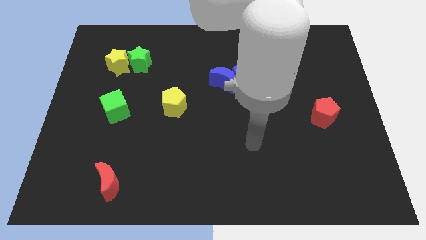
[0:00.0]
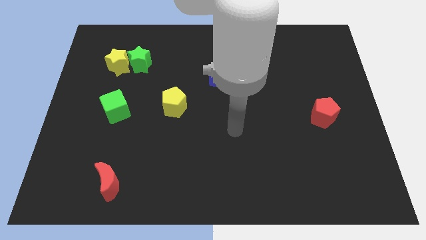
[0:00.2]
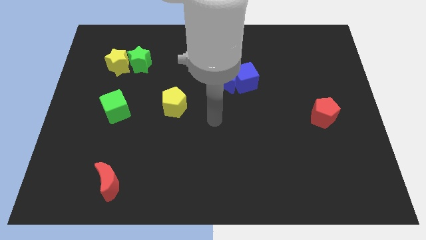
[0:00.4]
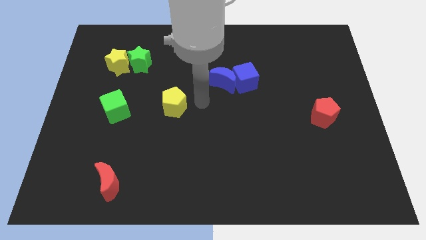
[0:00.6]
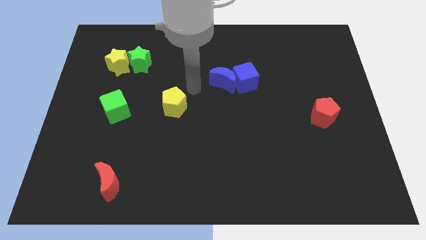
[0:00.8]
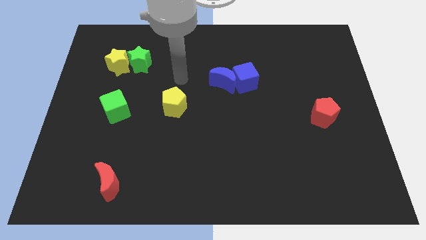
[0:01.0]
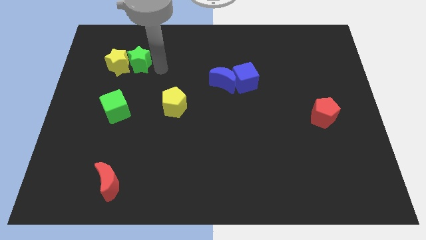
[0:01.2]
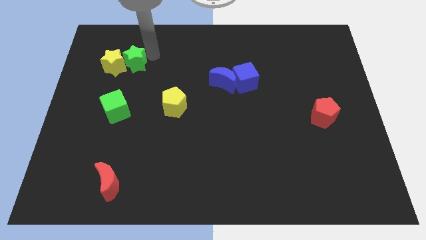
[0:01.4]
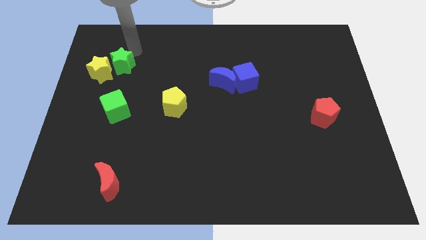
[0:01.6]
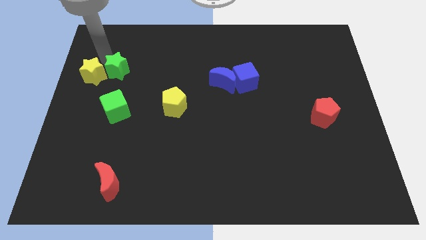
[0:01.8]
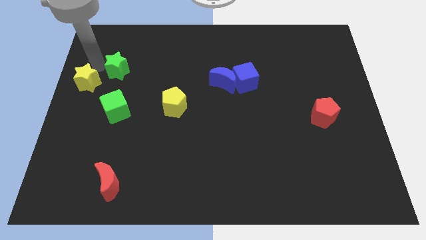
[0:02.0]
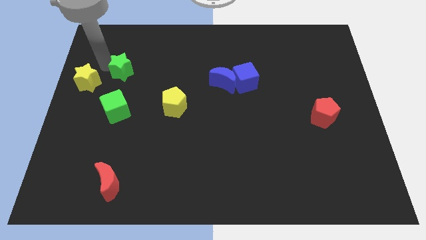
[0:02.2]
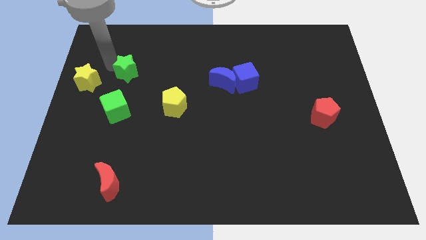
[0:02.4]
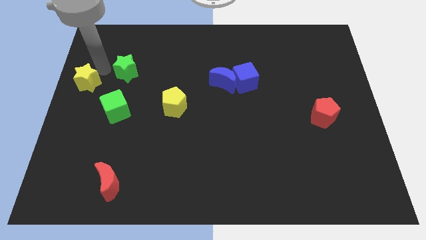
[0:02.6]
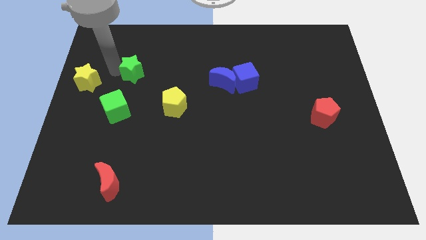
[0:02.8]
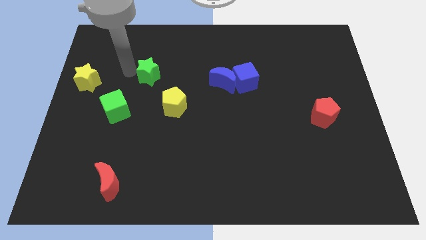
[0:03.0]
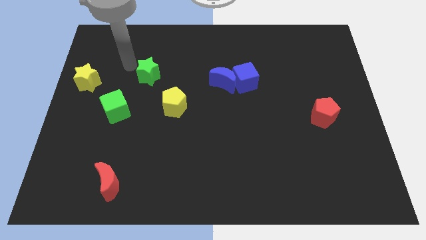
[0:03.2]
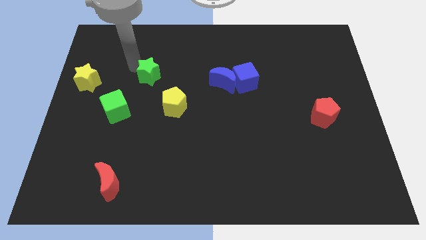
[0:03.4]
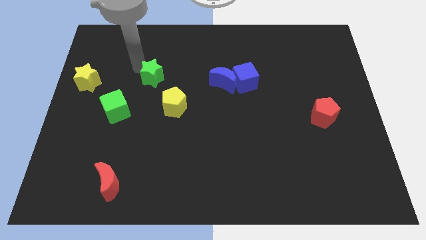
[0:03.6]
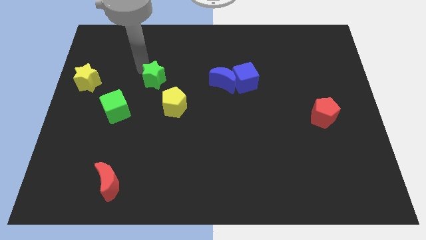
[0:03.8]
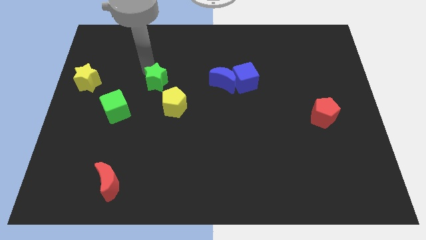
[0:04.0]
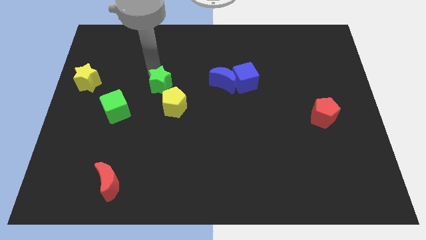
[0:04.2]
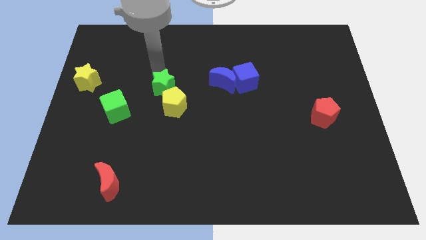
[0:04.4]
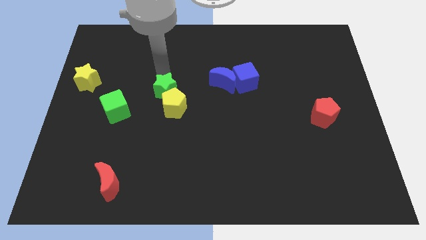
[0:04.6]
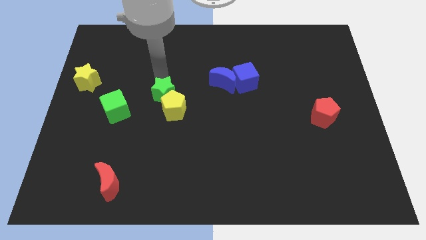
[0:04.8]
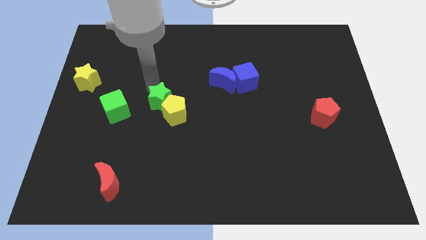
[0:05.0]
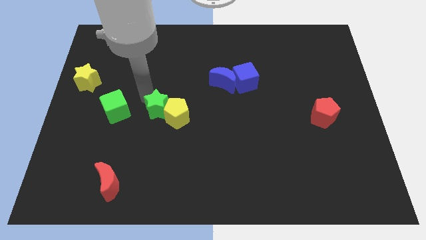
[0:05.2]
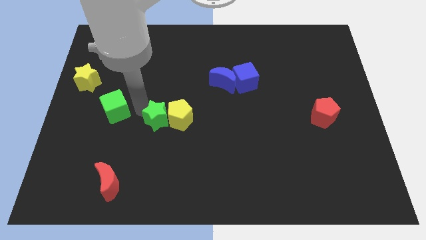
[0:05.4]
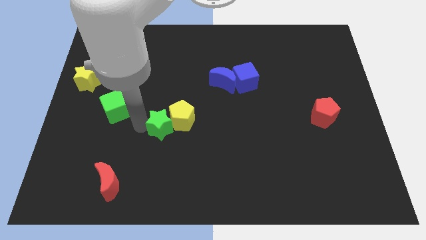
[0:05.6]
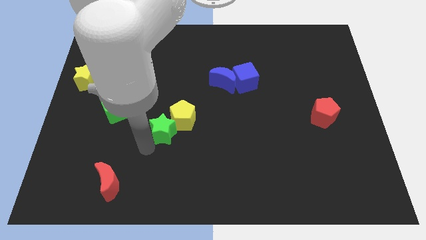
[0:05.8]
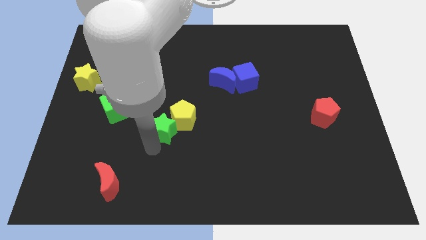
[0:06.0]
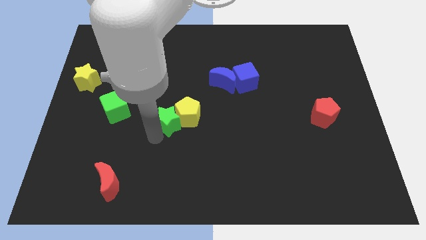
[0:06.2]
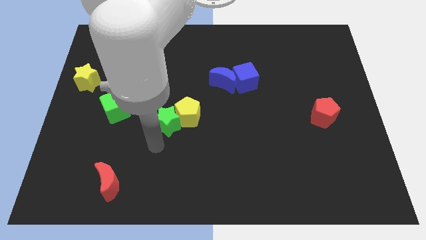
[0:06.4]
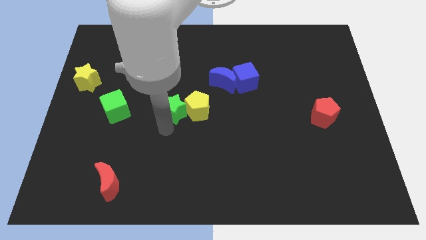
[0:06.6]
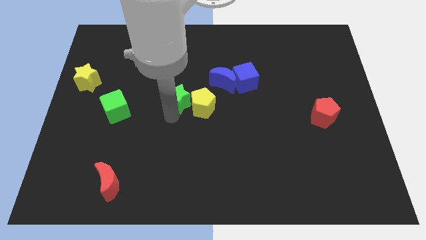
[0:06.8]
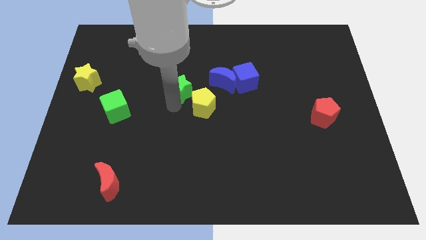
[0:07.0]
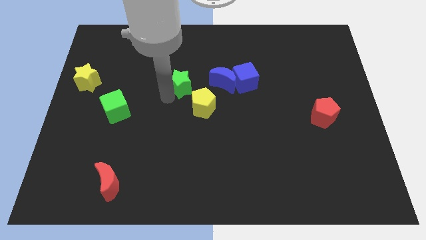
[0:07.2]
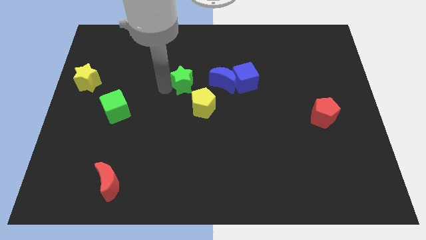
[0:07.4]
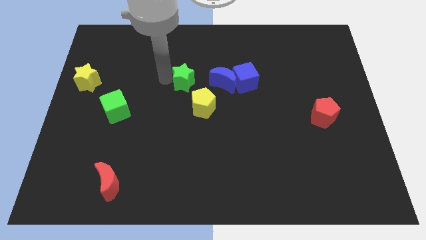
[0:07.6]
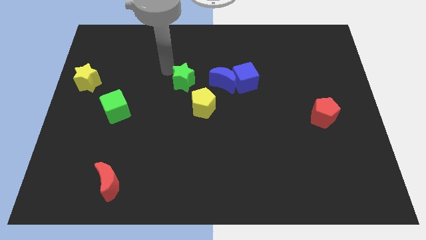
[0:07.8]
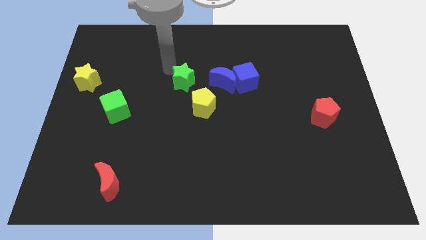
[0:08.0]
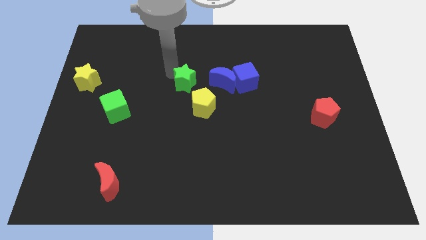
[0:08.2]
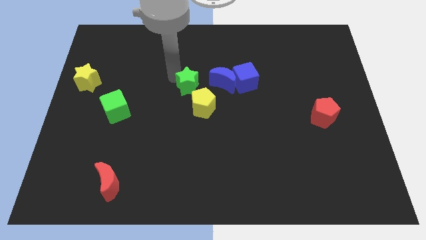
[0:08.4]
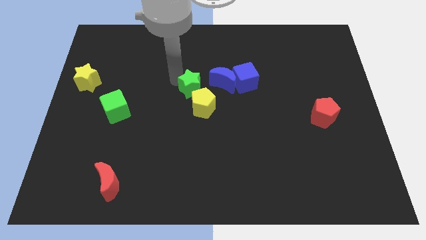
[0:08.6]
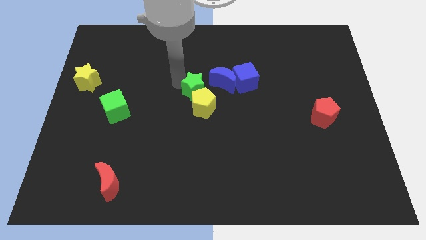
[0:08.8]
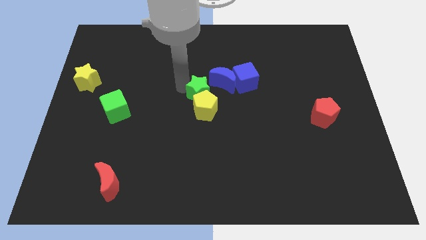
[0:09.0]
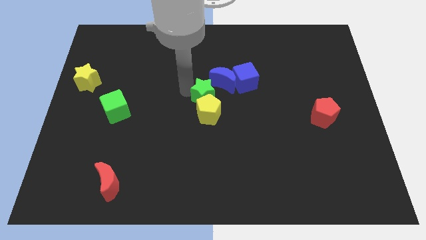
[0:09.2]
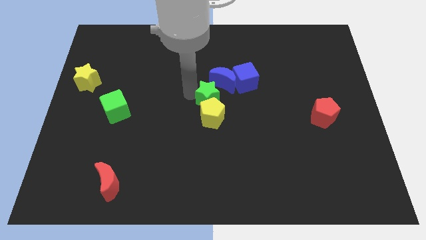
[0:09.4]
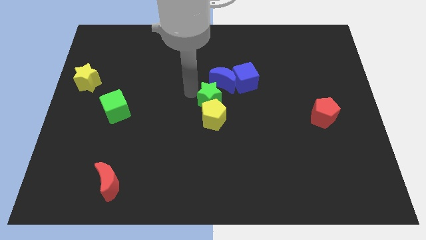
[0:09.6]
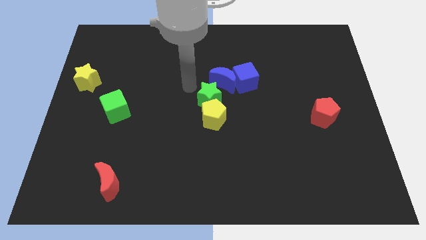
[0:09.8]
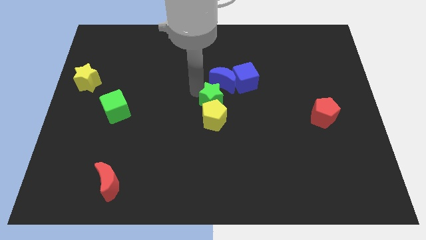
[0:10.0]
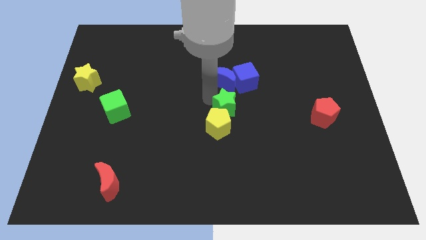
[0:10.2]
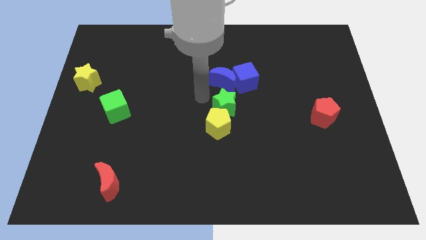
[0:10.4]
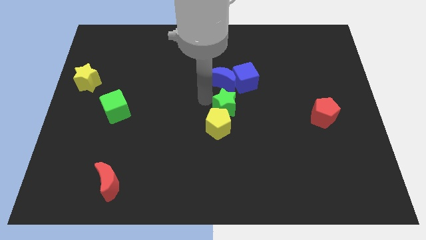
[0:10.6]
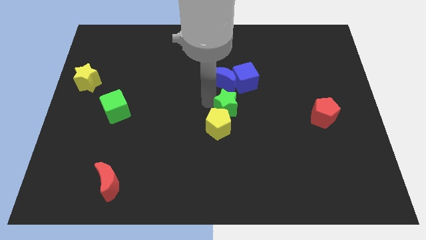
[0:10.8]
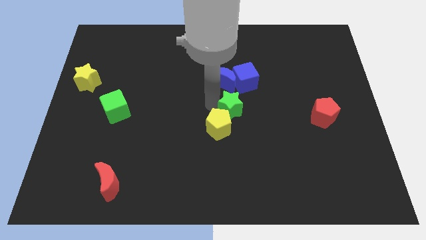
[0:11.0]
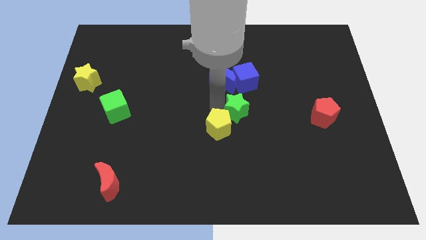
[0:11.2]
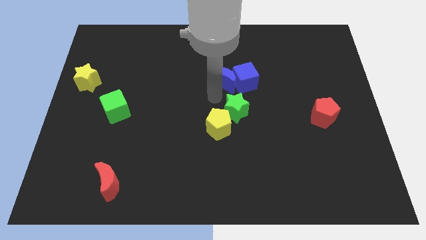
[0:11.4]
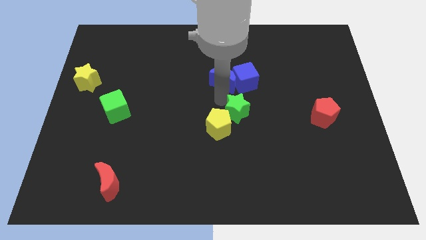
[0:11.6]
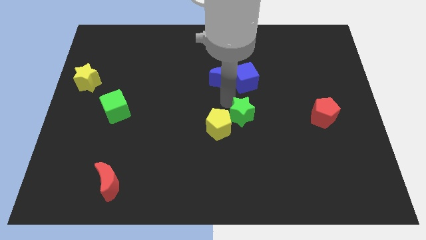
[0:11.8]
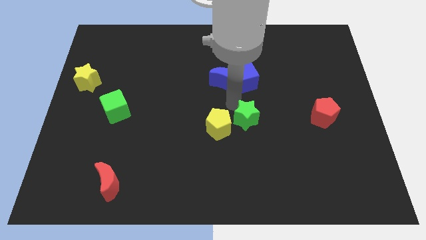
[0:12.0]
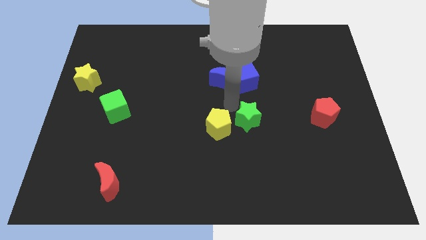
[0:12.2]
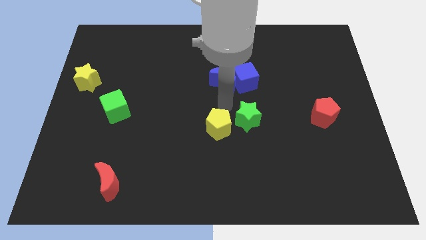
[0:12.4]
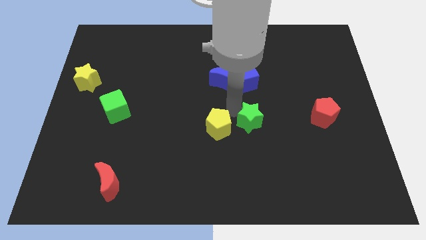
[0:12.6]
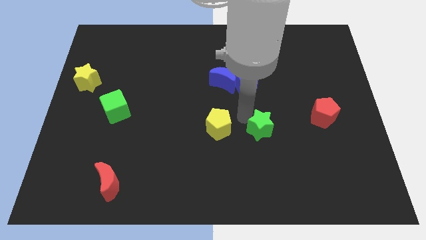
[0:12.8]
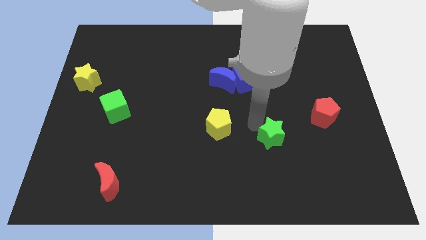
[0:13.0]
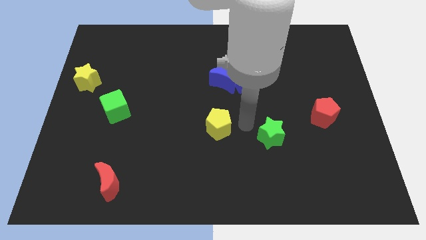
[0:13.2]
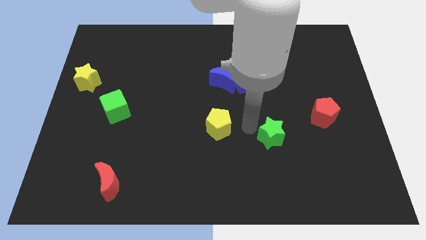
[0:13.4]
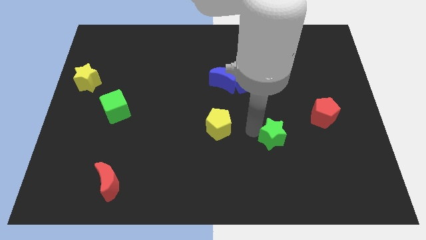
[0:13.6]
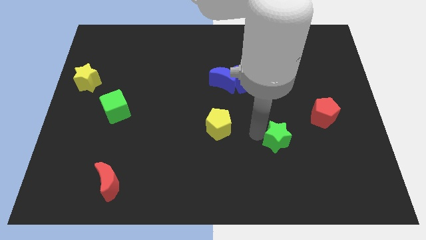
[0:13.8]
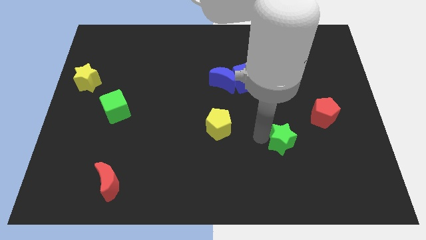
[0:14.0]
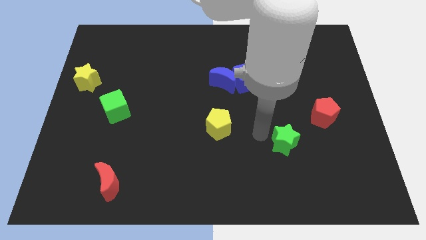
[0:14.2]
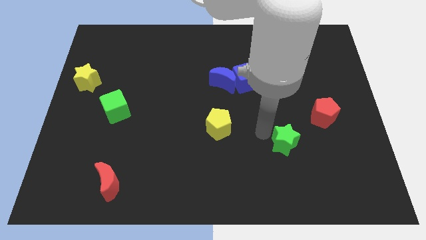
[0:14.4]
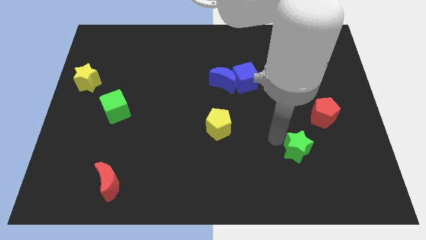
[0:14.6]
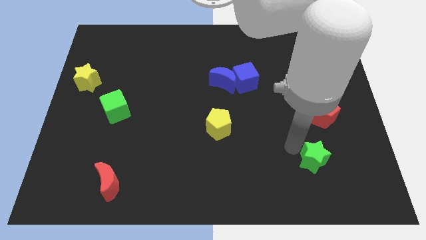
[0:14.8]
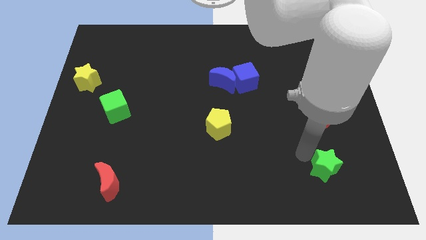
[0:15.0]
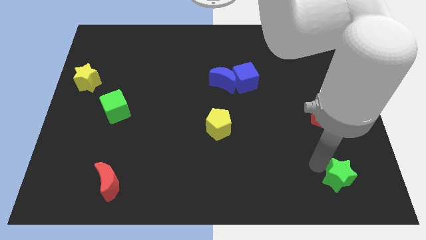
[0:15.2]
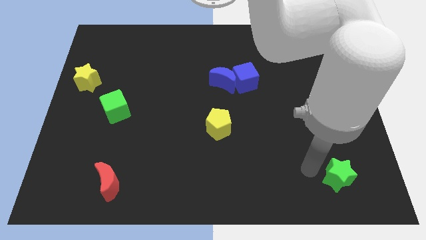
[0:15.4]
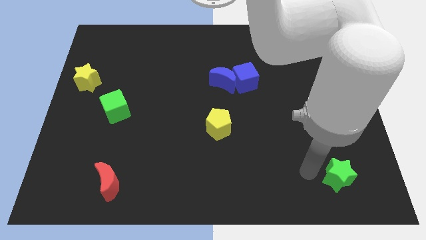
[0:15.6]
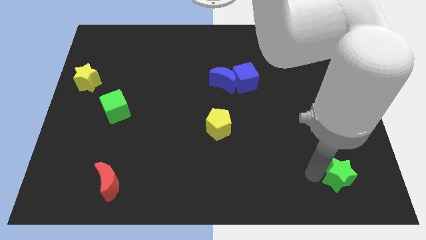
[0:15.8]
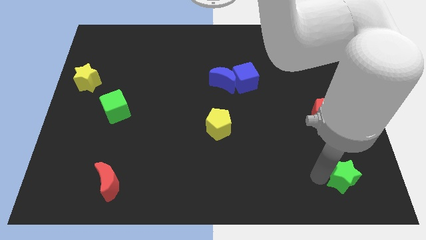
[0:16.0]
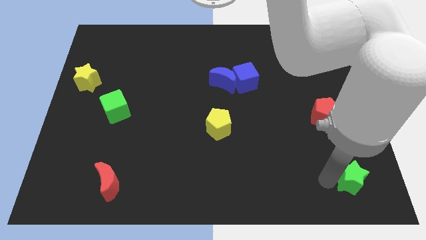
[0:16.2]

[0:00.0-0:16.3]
put the green star to the bottom right corner
